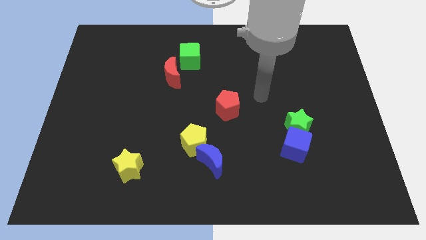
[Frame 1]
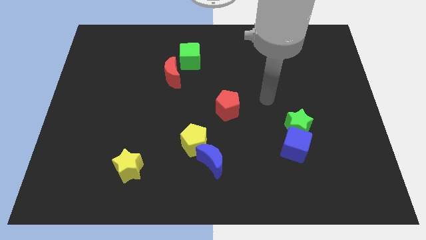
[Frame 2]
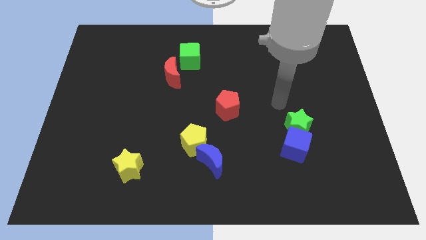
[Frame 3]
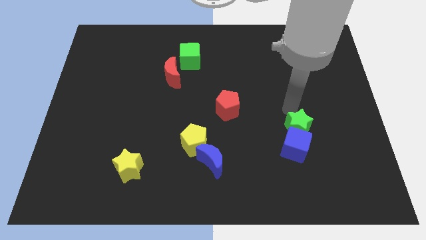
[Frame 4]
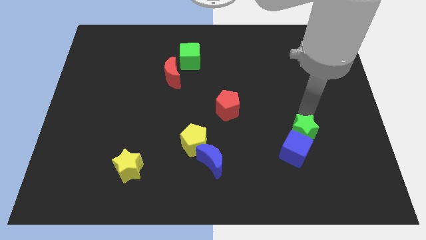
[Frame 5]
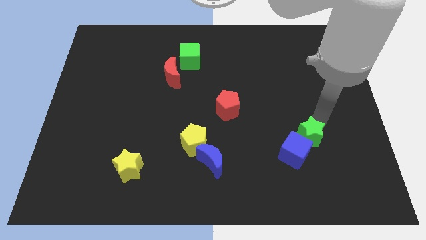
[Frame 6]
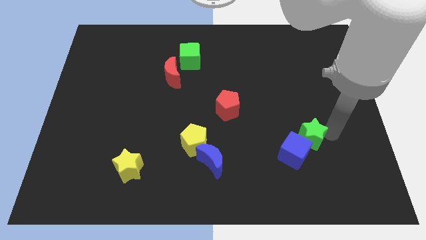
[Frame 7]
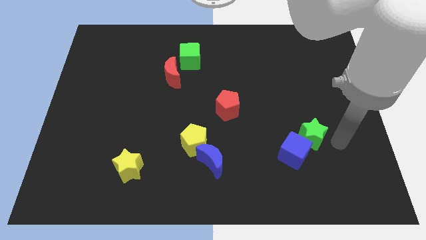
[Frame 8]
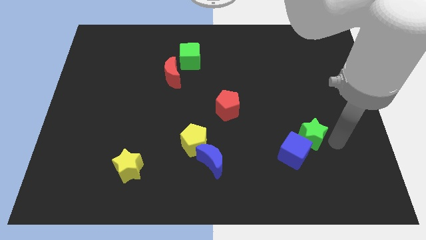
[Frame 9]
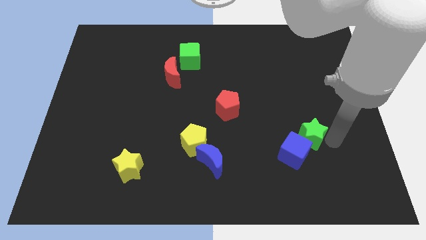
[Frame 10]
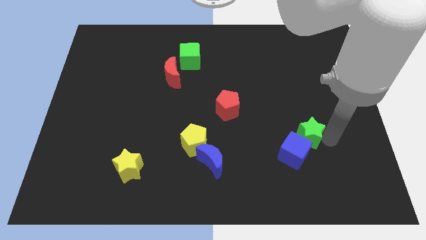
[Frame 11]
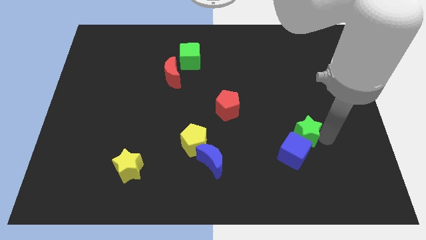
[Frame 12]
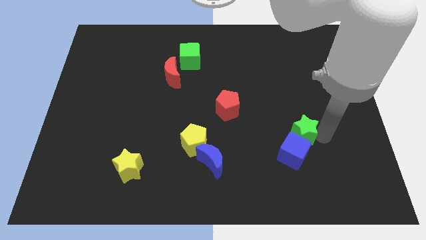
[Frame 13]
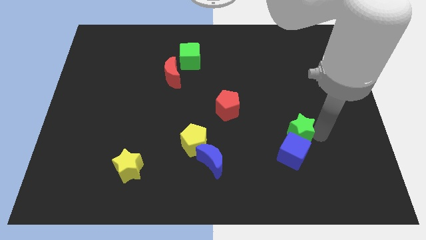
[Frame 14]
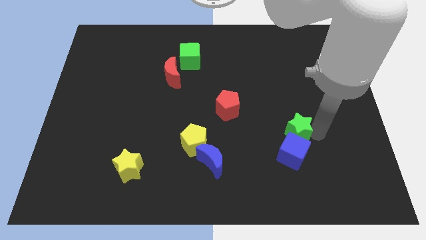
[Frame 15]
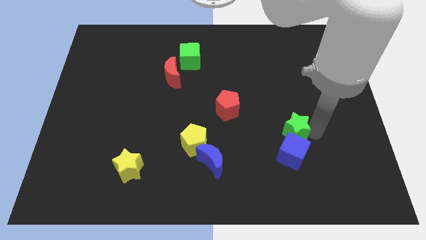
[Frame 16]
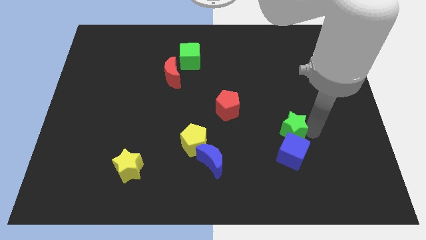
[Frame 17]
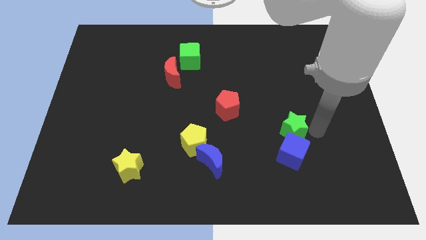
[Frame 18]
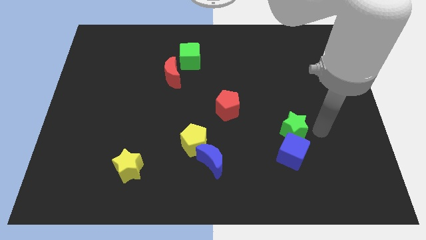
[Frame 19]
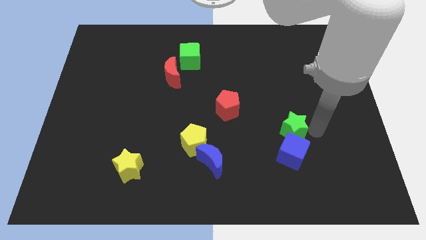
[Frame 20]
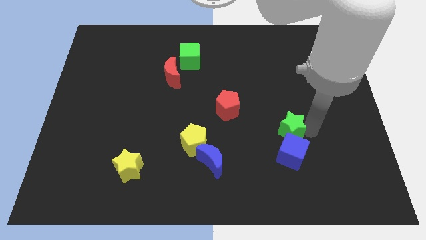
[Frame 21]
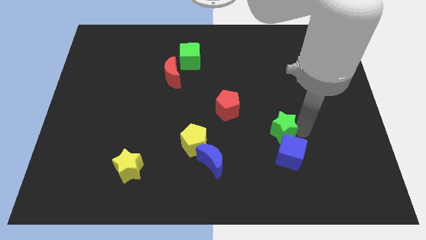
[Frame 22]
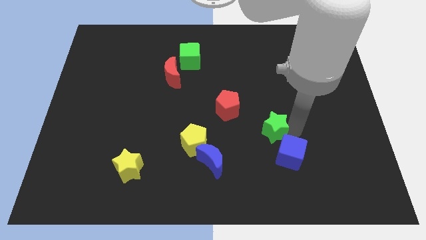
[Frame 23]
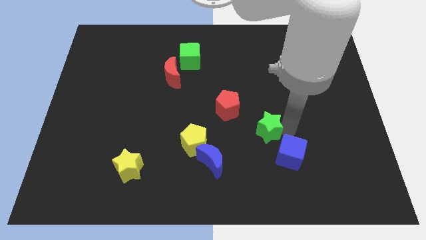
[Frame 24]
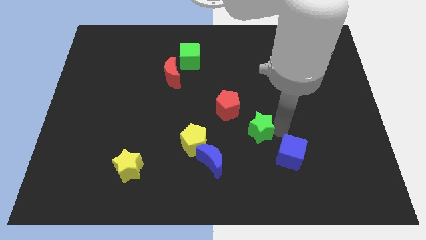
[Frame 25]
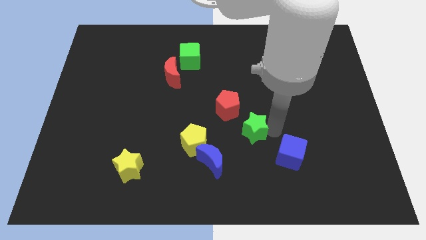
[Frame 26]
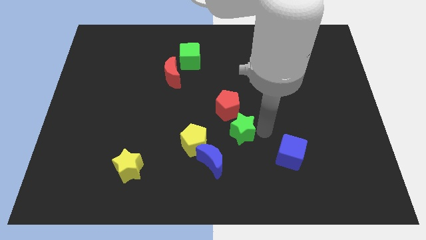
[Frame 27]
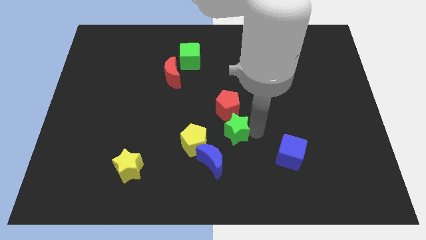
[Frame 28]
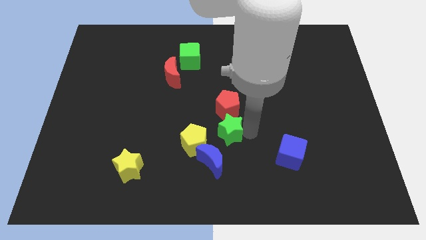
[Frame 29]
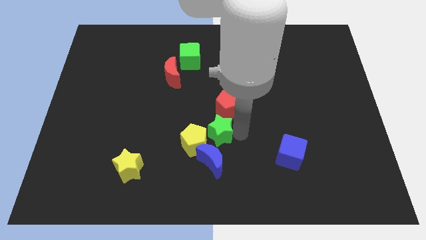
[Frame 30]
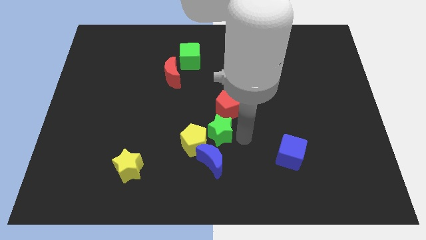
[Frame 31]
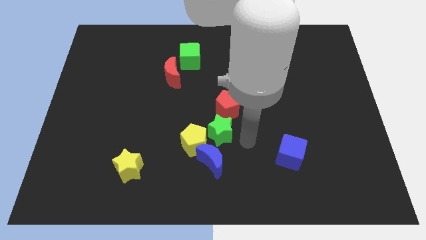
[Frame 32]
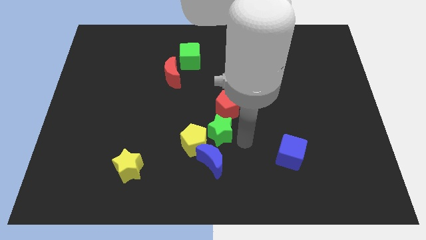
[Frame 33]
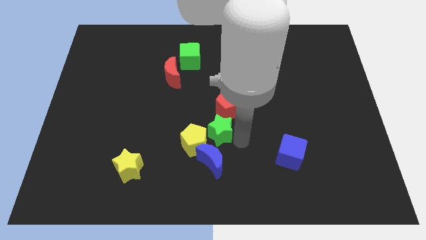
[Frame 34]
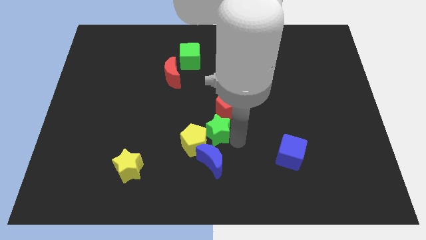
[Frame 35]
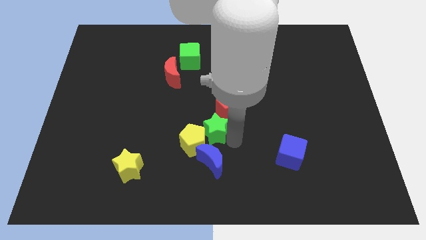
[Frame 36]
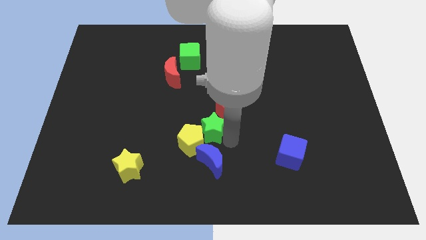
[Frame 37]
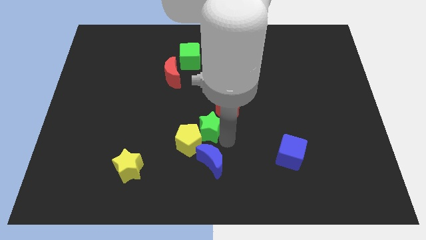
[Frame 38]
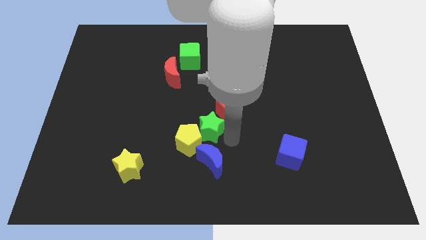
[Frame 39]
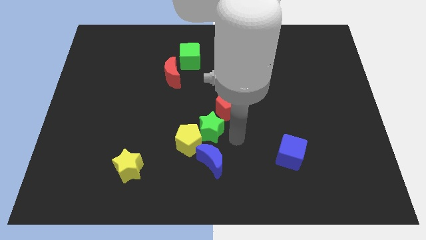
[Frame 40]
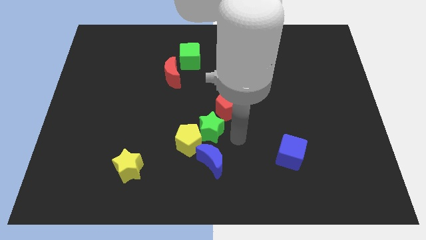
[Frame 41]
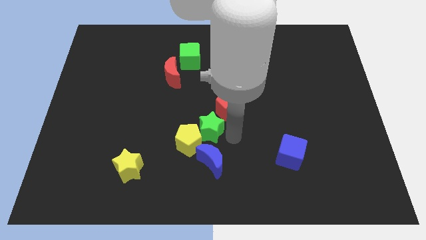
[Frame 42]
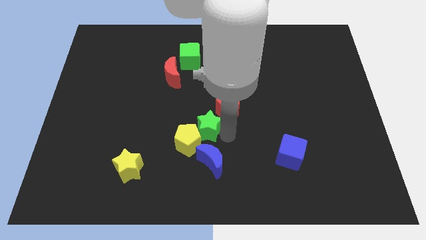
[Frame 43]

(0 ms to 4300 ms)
move the green star left

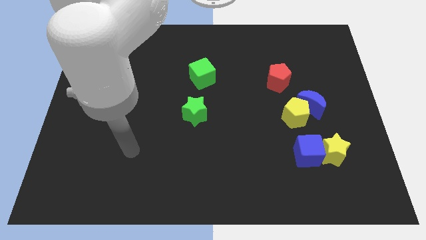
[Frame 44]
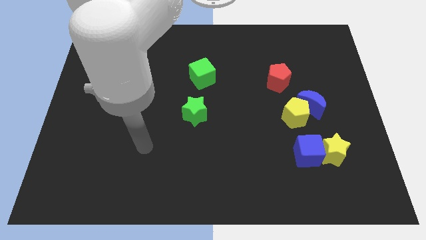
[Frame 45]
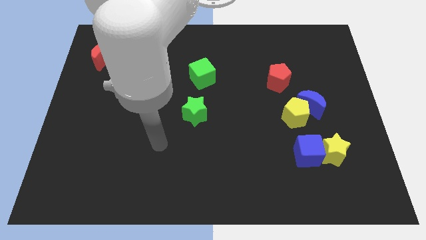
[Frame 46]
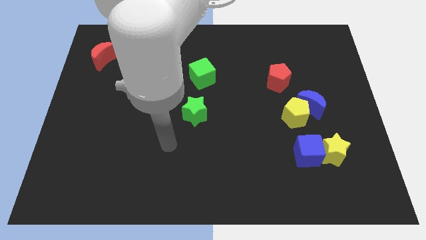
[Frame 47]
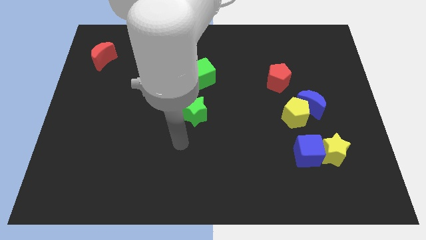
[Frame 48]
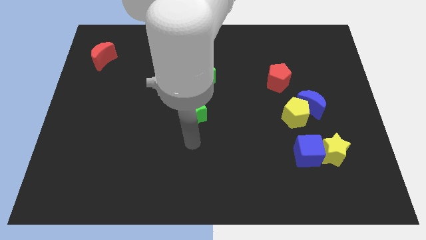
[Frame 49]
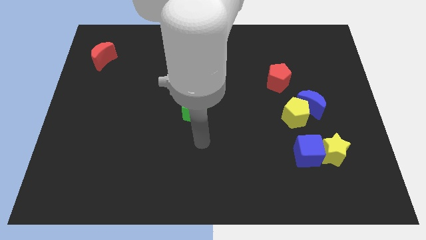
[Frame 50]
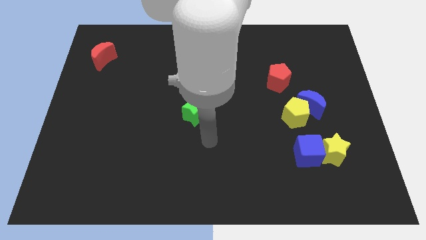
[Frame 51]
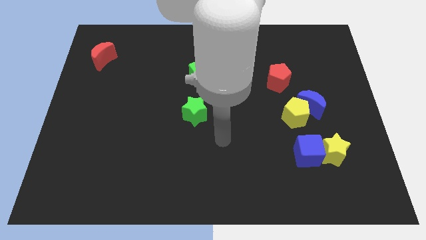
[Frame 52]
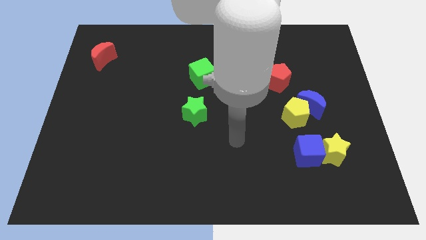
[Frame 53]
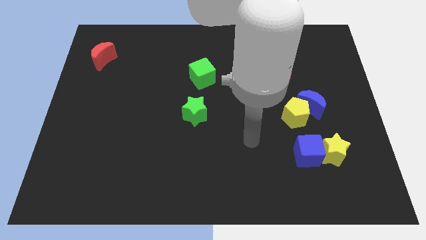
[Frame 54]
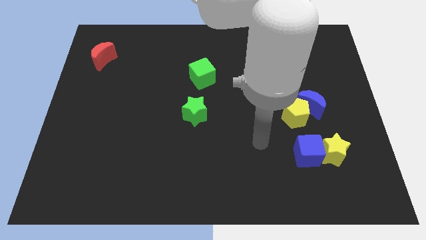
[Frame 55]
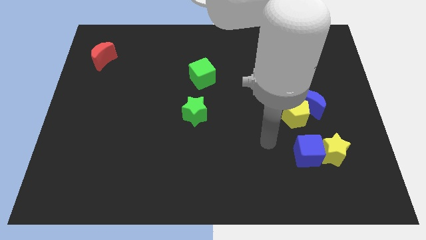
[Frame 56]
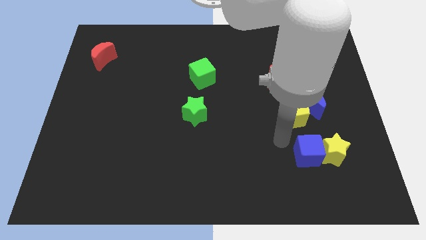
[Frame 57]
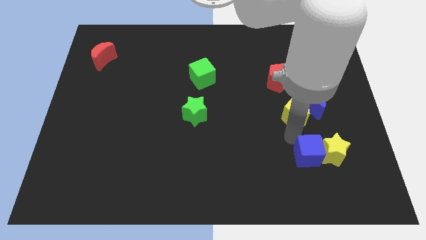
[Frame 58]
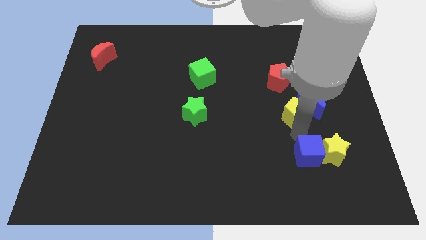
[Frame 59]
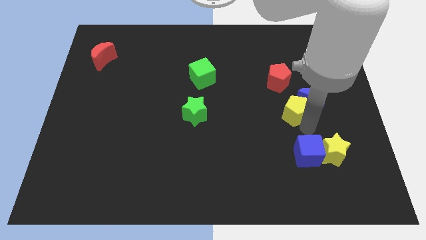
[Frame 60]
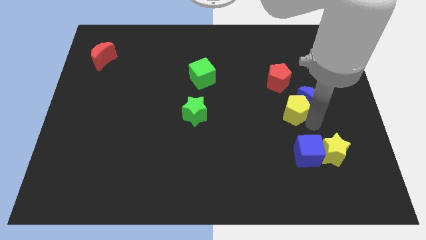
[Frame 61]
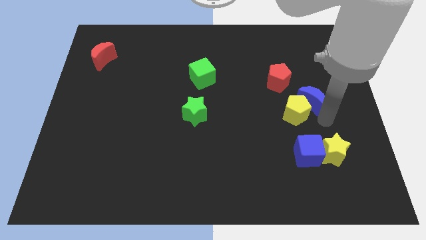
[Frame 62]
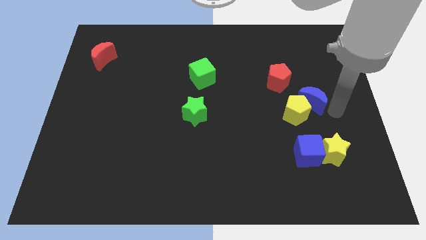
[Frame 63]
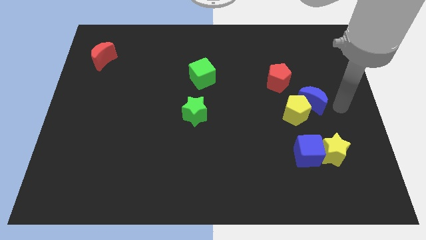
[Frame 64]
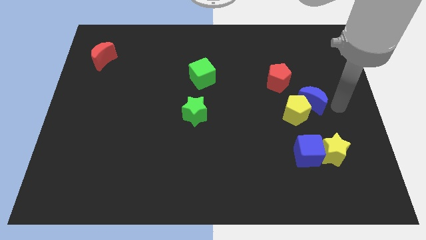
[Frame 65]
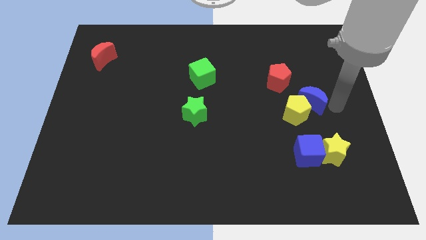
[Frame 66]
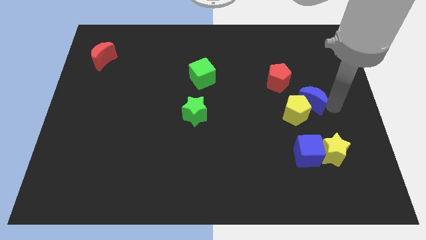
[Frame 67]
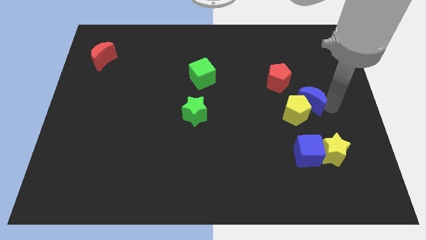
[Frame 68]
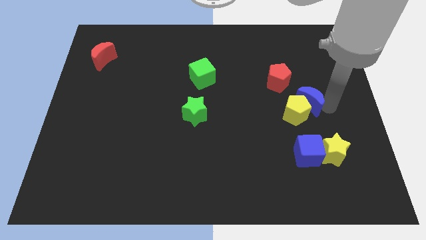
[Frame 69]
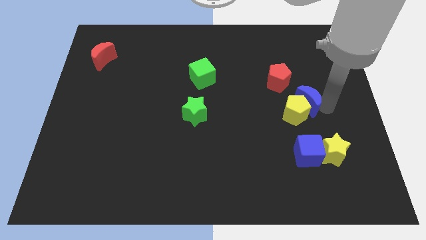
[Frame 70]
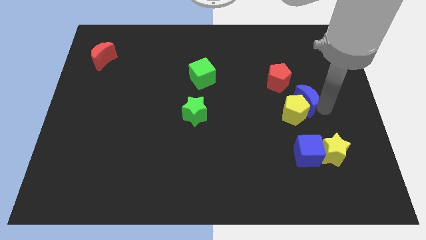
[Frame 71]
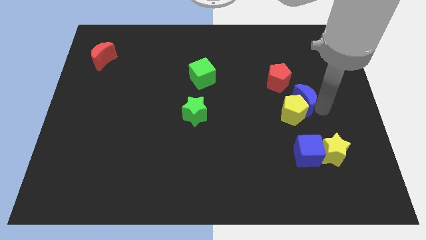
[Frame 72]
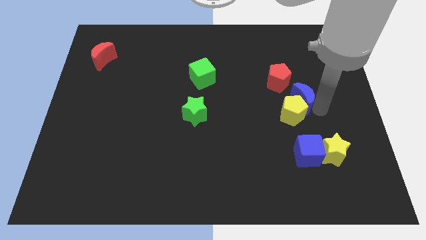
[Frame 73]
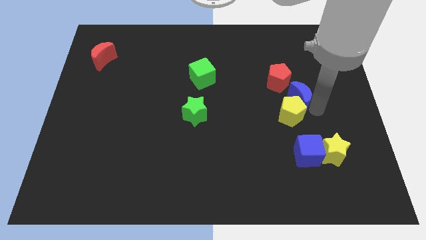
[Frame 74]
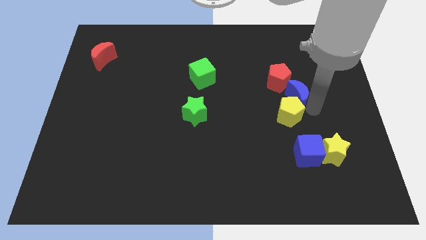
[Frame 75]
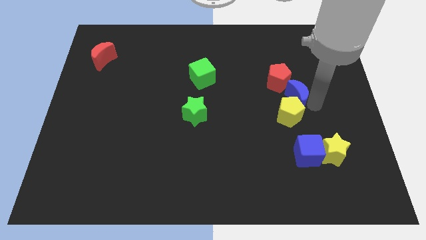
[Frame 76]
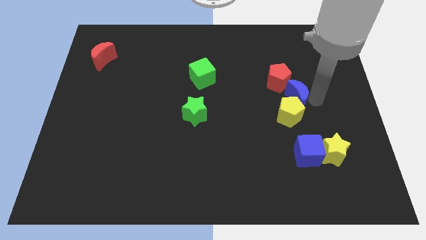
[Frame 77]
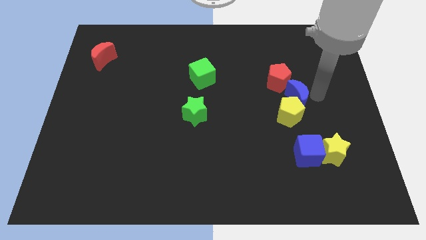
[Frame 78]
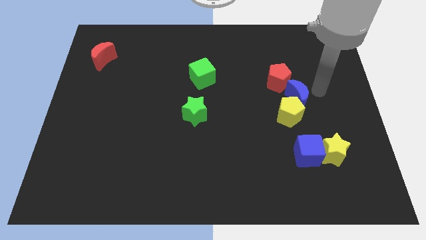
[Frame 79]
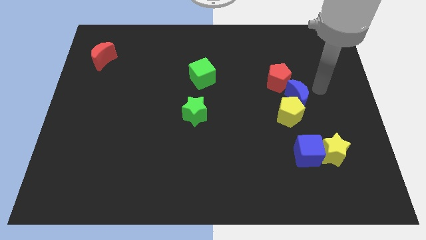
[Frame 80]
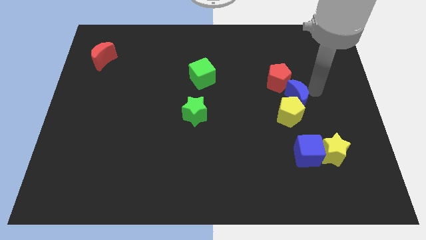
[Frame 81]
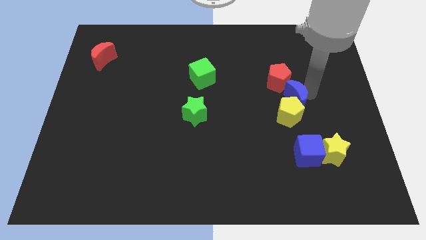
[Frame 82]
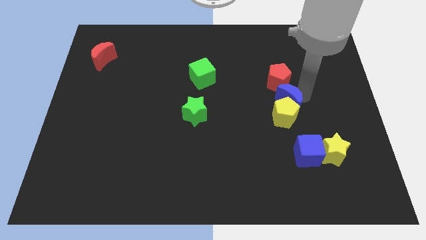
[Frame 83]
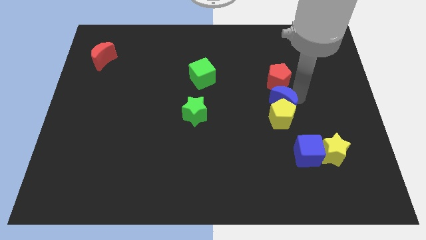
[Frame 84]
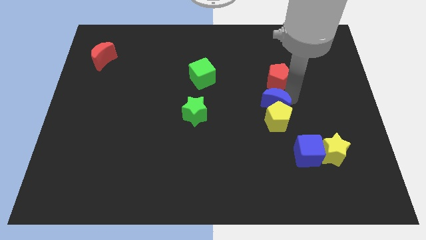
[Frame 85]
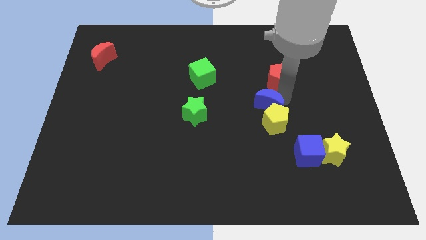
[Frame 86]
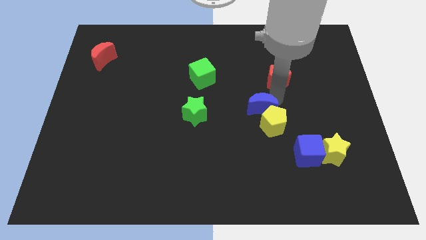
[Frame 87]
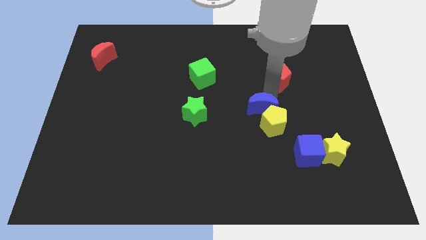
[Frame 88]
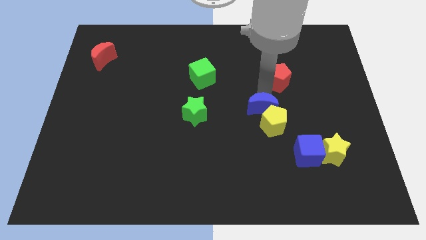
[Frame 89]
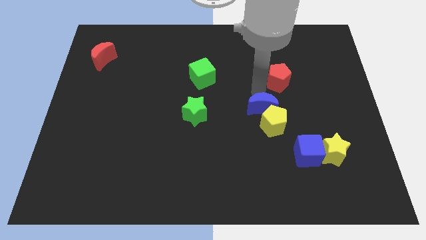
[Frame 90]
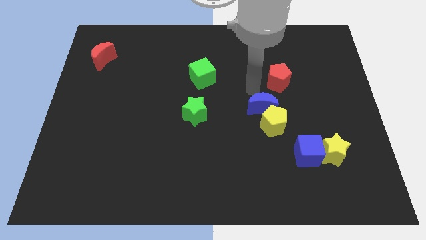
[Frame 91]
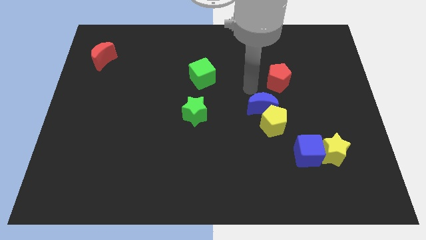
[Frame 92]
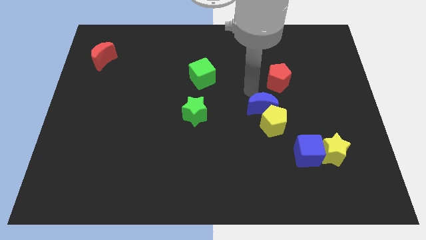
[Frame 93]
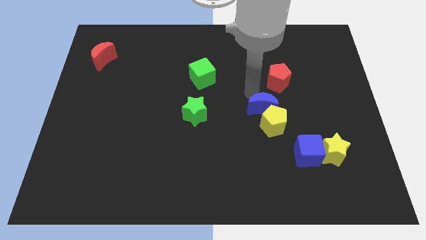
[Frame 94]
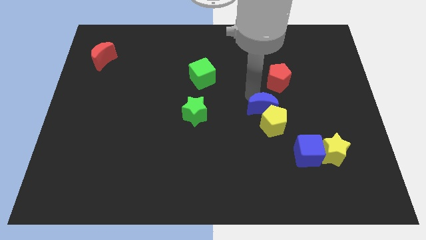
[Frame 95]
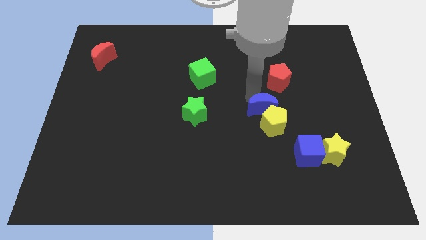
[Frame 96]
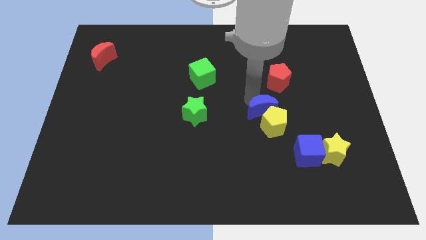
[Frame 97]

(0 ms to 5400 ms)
slightly push the blue moon diagonally down and left
